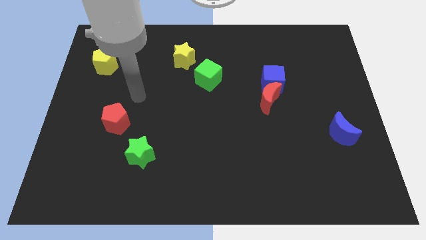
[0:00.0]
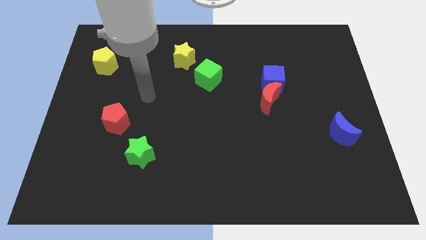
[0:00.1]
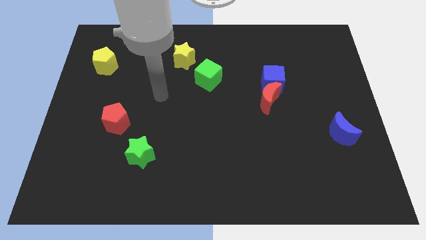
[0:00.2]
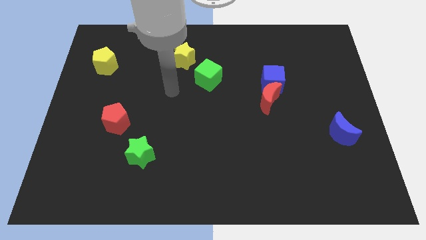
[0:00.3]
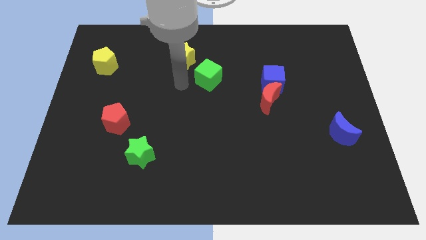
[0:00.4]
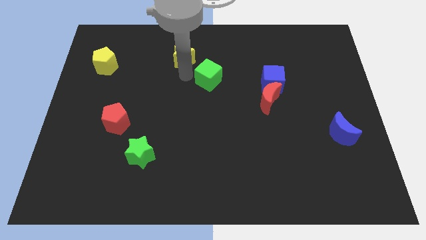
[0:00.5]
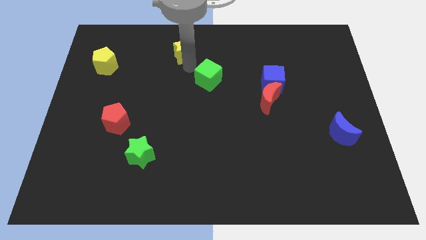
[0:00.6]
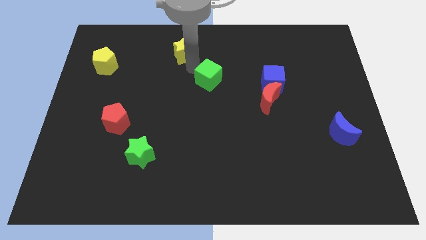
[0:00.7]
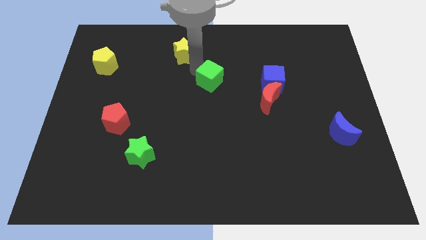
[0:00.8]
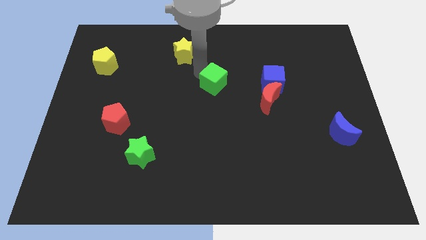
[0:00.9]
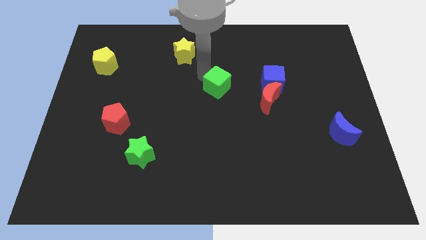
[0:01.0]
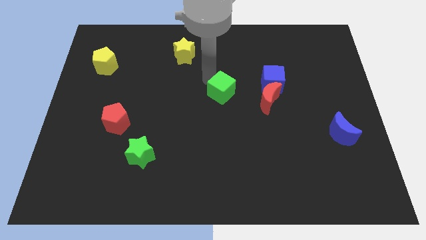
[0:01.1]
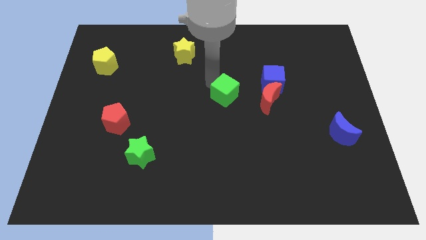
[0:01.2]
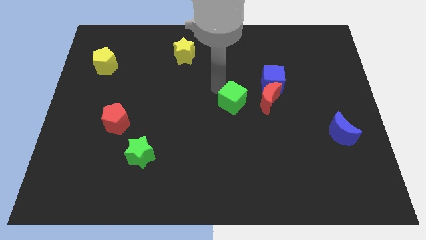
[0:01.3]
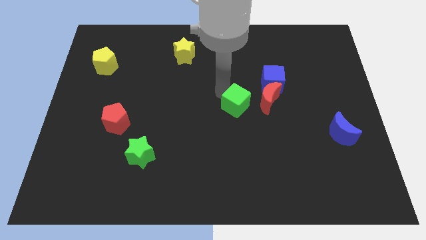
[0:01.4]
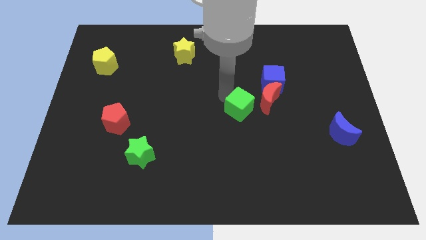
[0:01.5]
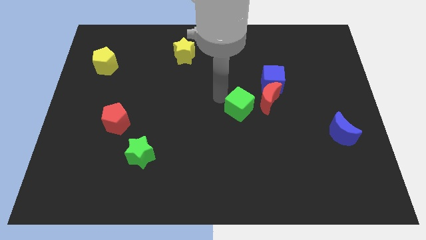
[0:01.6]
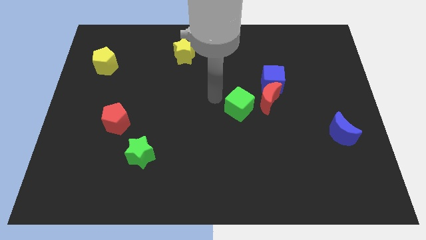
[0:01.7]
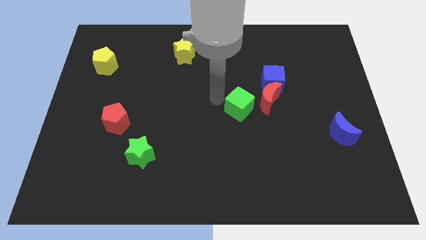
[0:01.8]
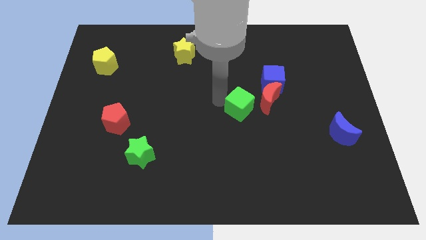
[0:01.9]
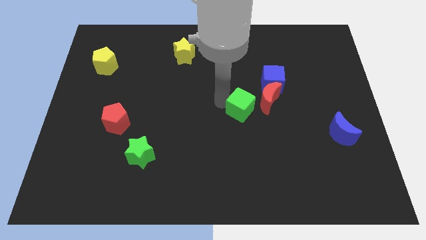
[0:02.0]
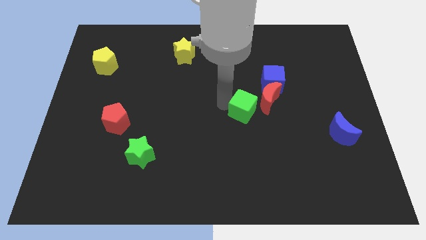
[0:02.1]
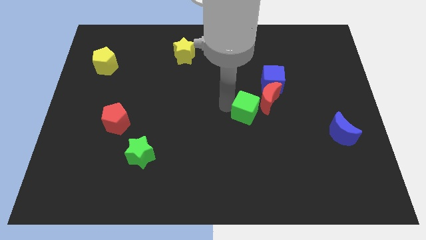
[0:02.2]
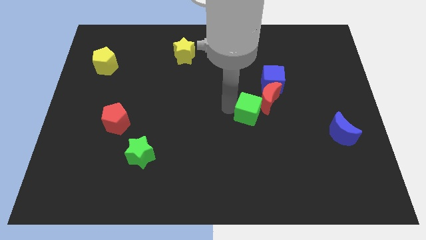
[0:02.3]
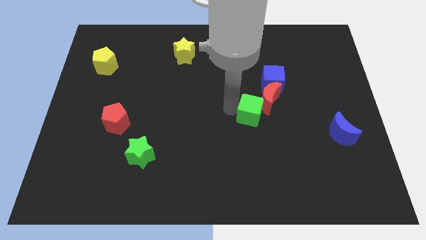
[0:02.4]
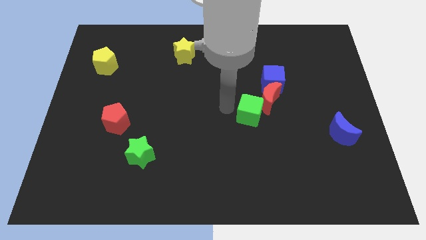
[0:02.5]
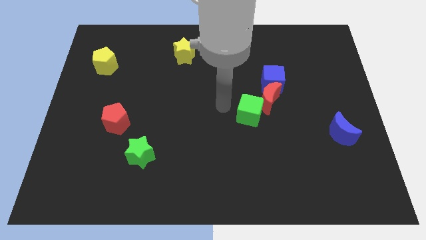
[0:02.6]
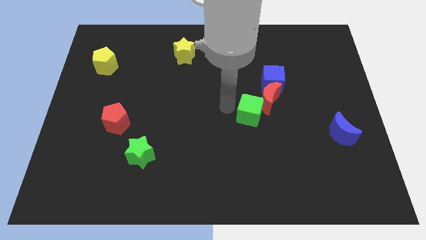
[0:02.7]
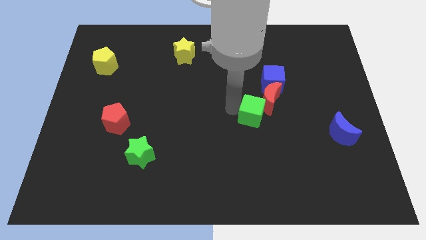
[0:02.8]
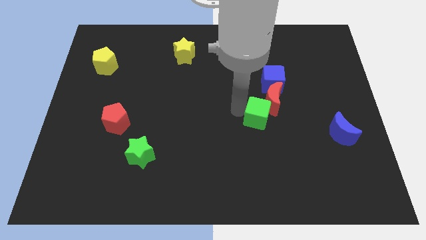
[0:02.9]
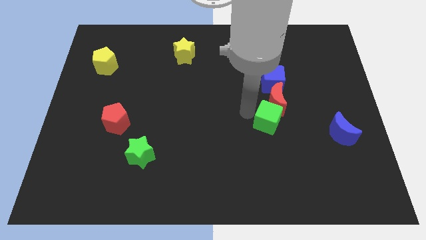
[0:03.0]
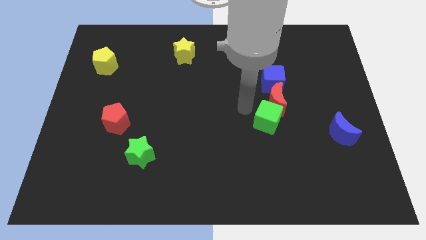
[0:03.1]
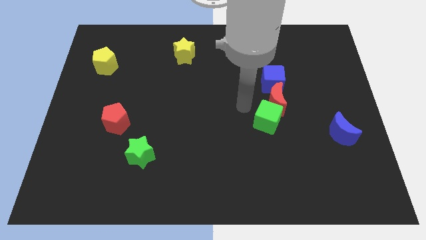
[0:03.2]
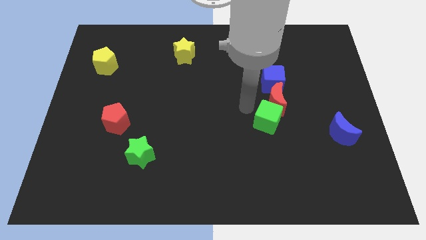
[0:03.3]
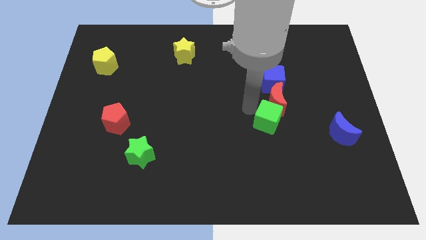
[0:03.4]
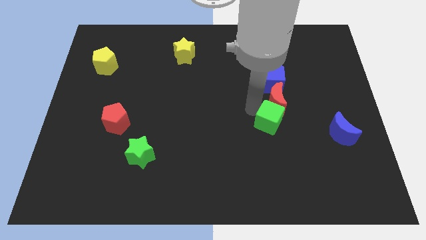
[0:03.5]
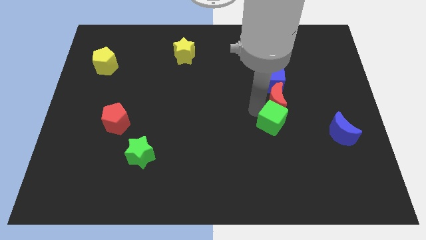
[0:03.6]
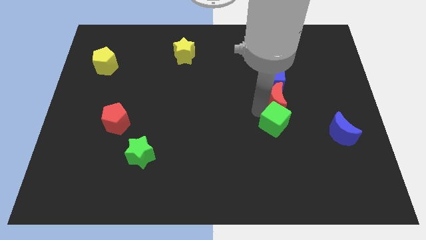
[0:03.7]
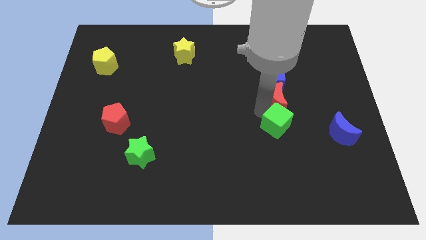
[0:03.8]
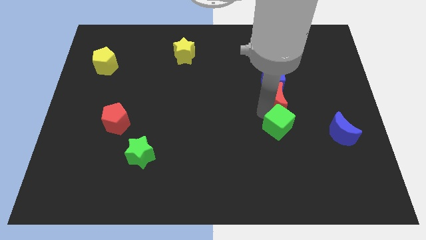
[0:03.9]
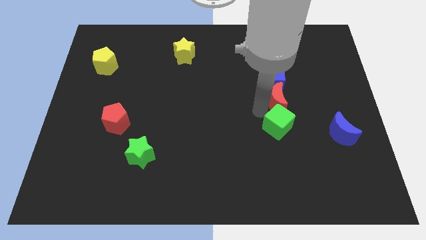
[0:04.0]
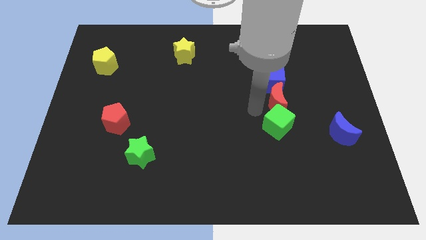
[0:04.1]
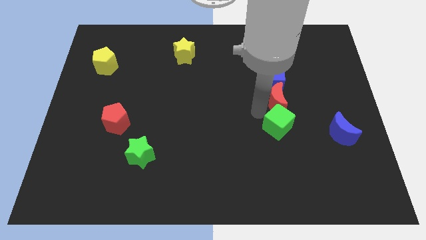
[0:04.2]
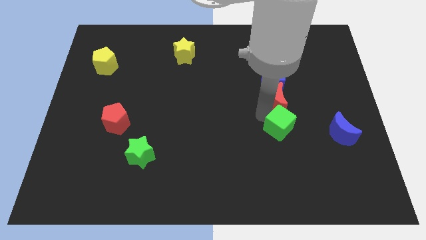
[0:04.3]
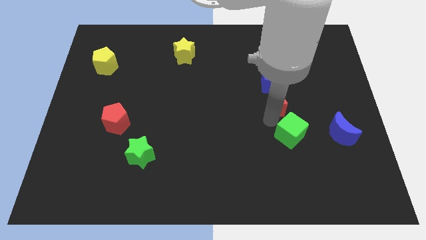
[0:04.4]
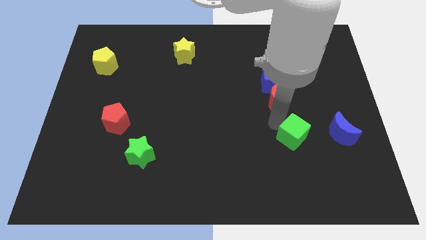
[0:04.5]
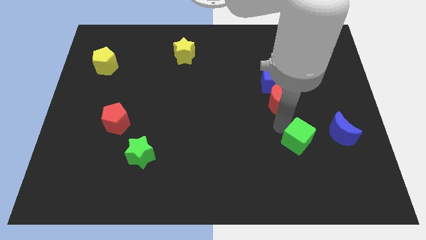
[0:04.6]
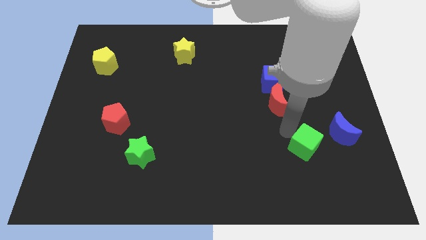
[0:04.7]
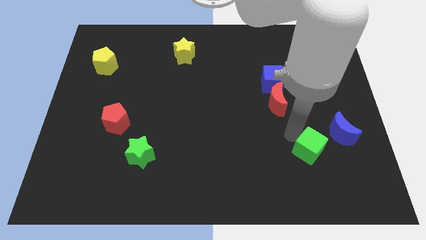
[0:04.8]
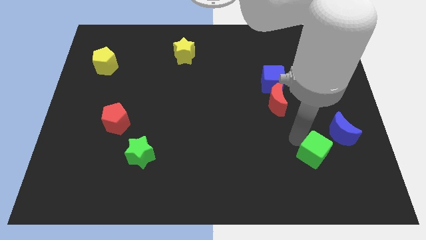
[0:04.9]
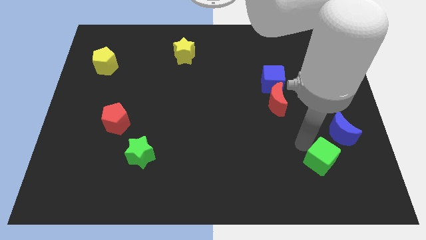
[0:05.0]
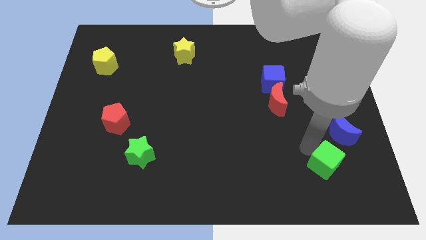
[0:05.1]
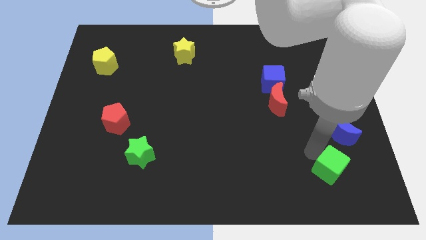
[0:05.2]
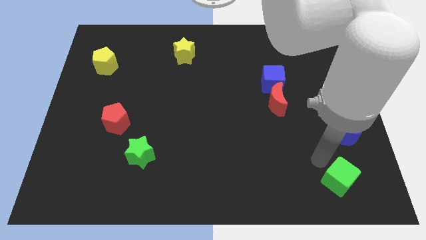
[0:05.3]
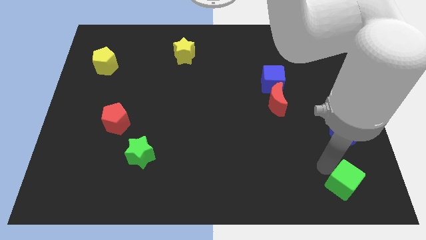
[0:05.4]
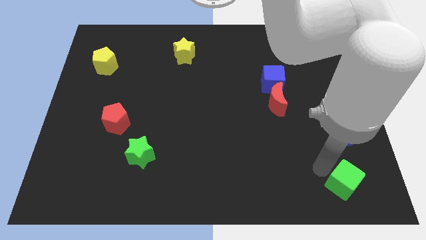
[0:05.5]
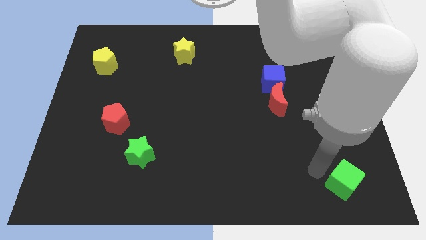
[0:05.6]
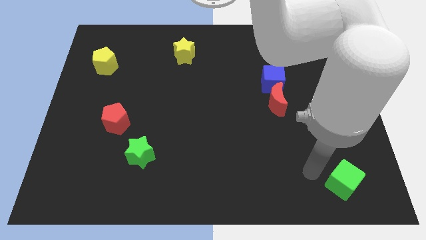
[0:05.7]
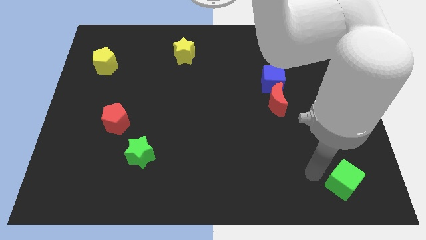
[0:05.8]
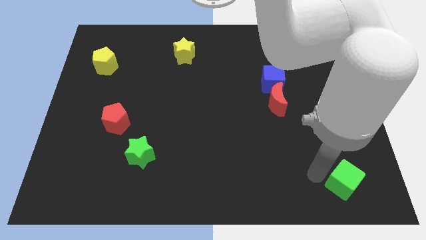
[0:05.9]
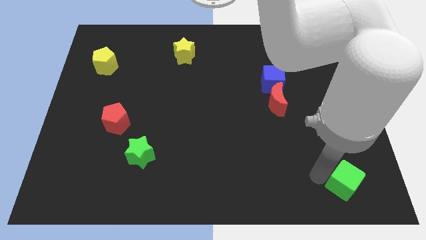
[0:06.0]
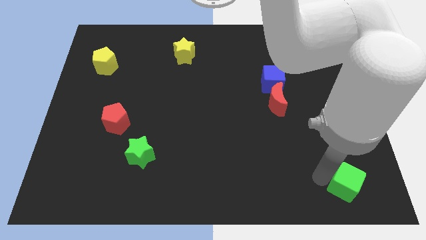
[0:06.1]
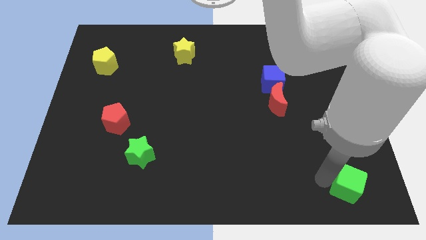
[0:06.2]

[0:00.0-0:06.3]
push the green cube to the bottom right corner

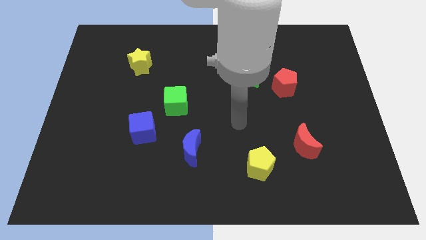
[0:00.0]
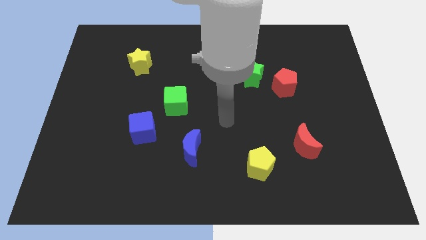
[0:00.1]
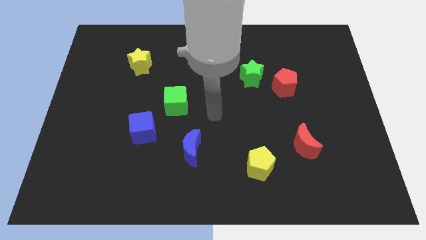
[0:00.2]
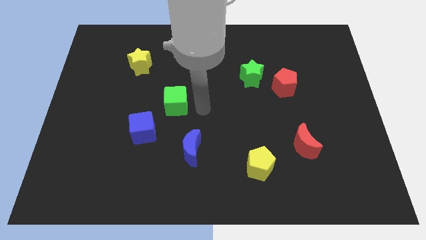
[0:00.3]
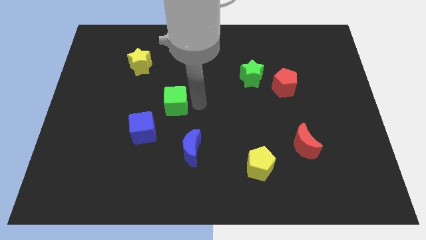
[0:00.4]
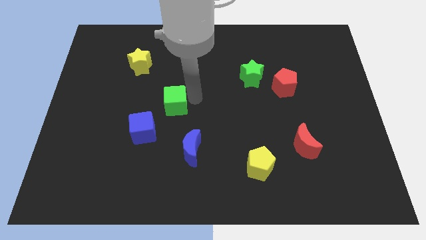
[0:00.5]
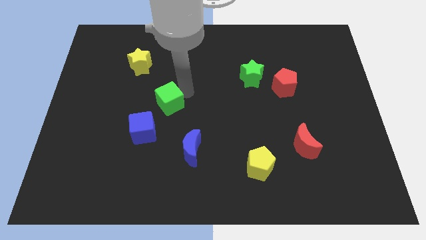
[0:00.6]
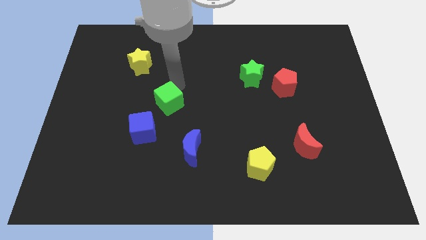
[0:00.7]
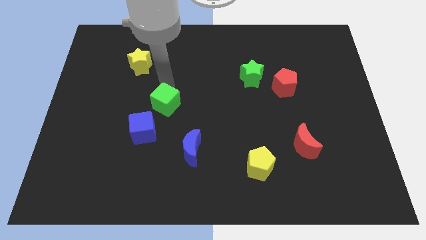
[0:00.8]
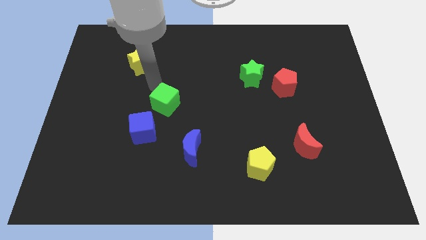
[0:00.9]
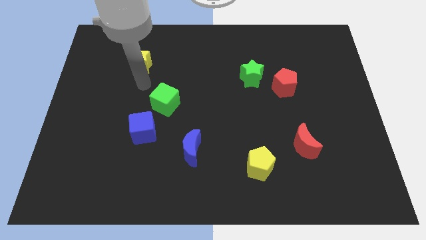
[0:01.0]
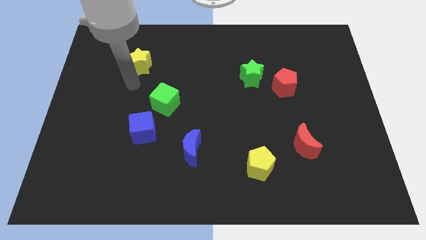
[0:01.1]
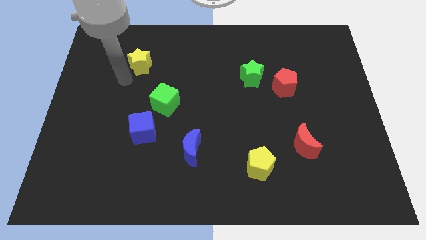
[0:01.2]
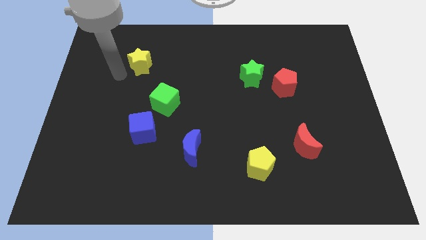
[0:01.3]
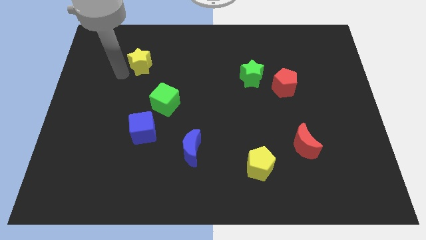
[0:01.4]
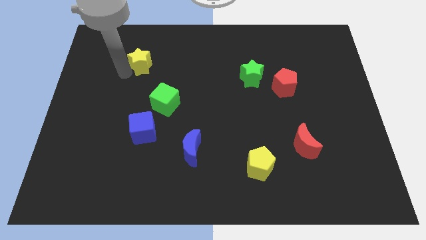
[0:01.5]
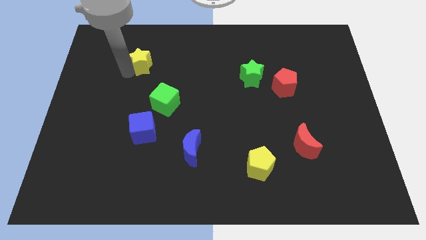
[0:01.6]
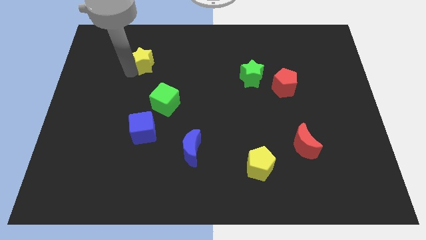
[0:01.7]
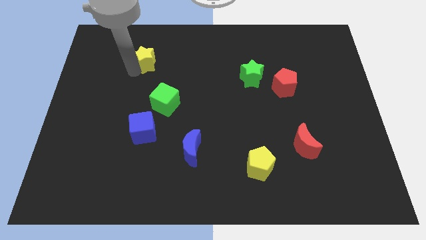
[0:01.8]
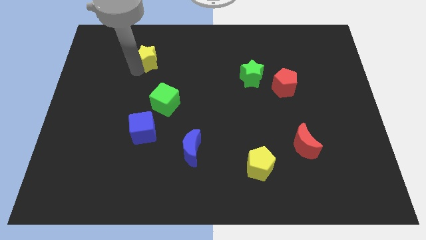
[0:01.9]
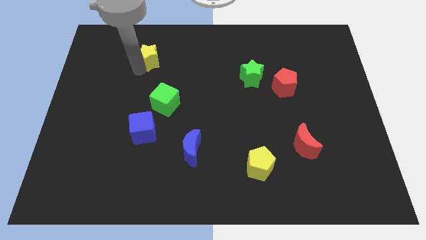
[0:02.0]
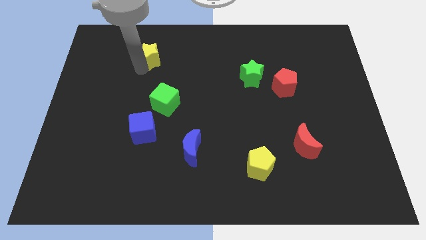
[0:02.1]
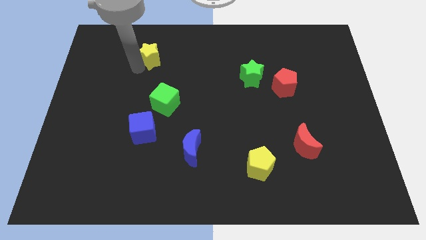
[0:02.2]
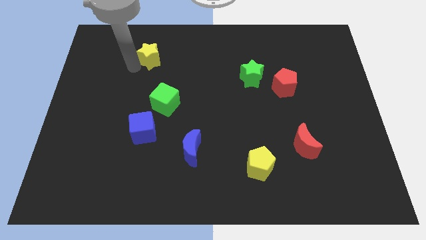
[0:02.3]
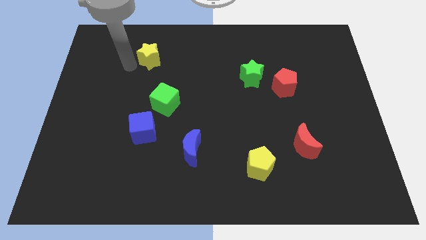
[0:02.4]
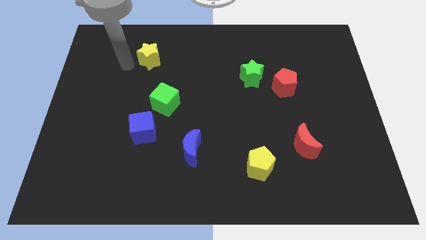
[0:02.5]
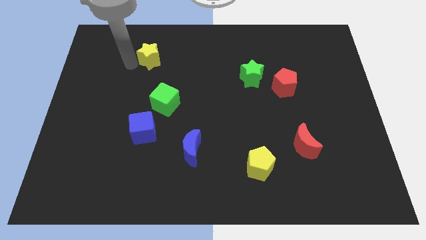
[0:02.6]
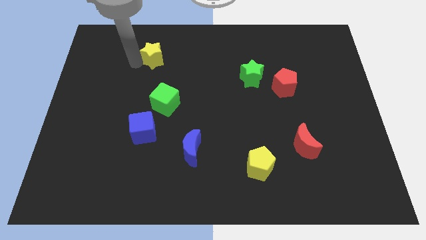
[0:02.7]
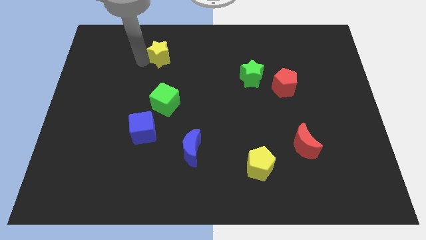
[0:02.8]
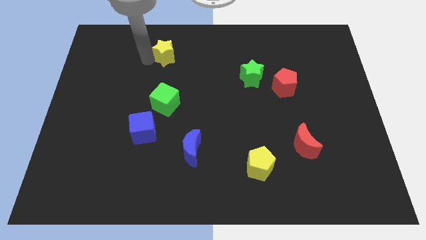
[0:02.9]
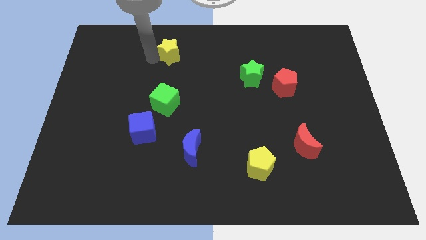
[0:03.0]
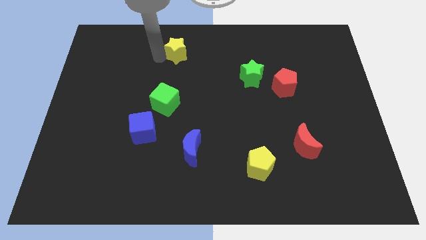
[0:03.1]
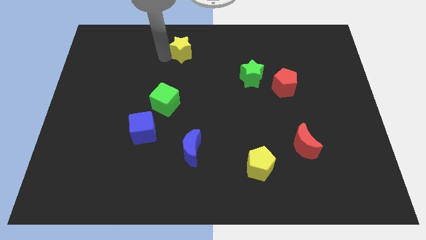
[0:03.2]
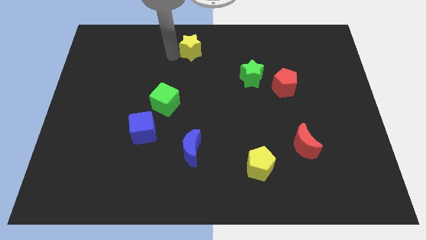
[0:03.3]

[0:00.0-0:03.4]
put the yellow star to the top
